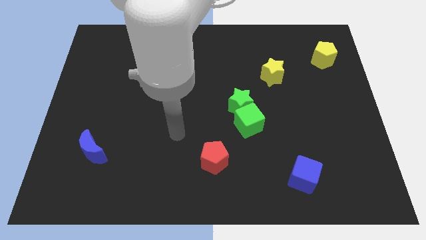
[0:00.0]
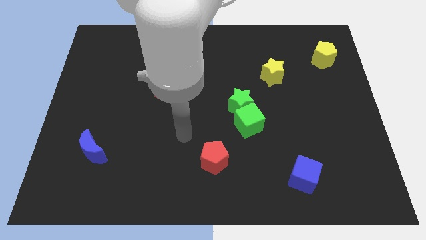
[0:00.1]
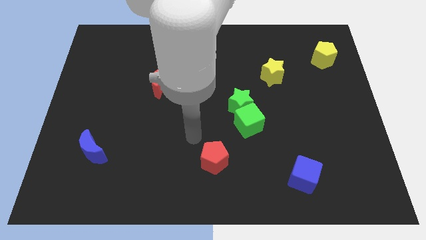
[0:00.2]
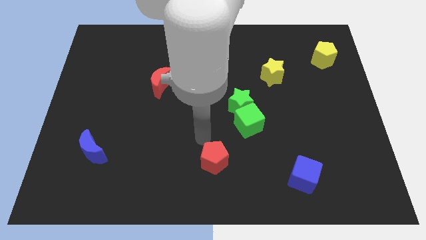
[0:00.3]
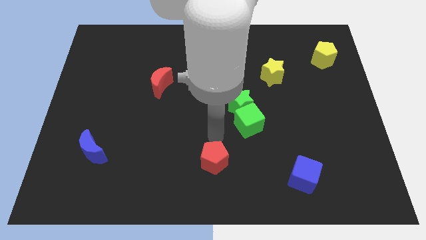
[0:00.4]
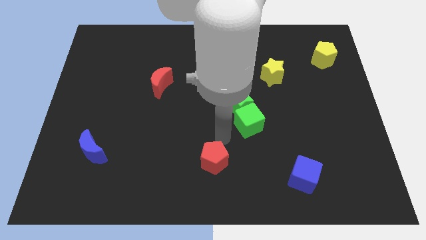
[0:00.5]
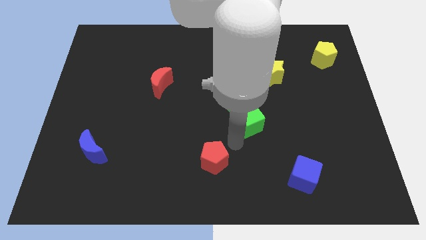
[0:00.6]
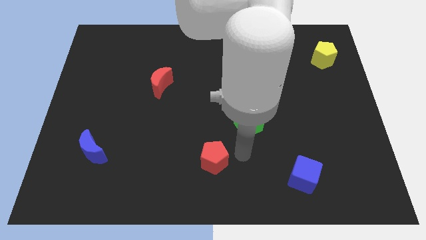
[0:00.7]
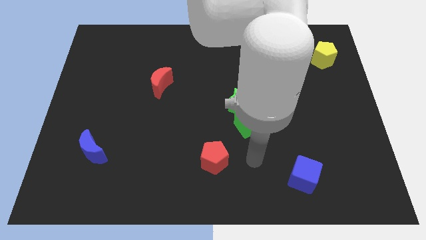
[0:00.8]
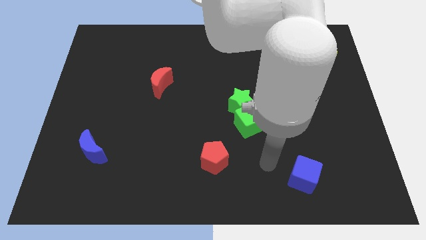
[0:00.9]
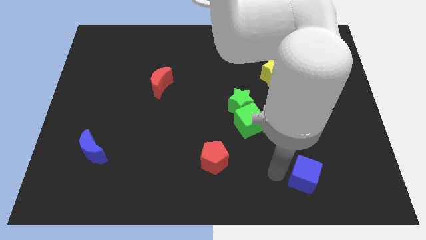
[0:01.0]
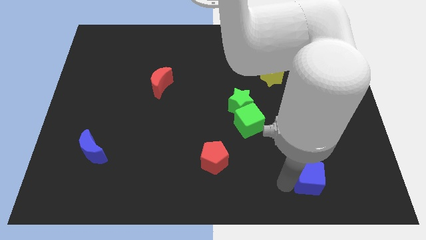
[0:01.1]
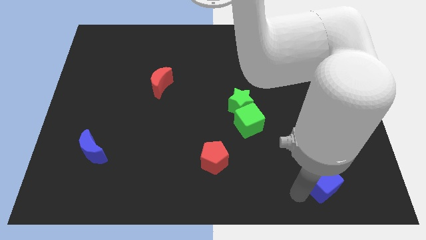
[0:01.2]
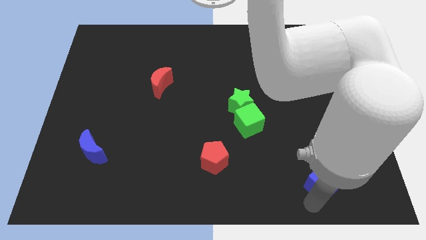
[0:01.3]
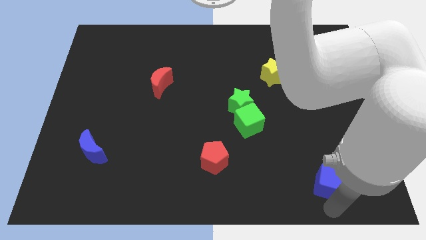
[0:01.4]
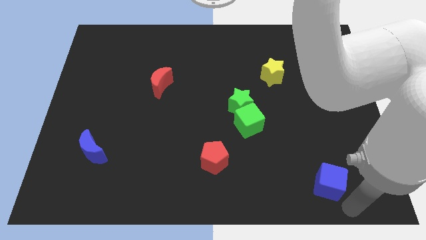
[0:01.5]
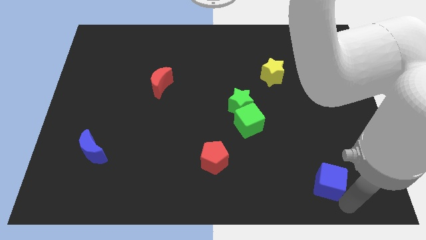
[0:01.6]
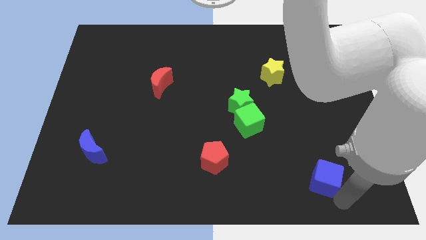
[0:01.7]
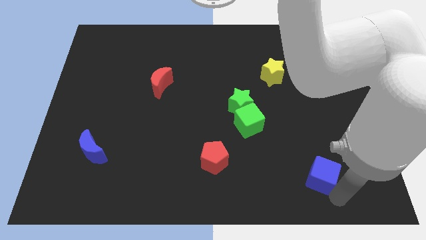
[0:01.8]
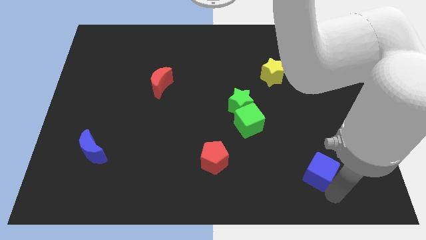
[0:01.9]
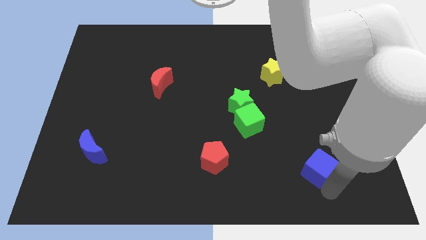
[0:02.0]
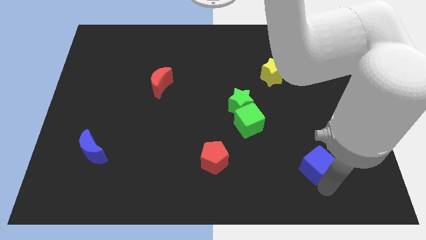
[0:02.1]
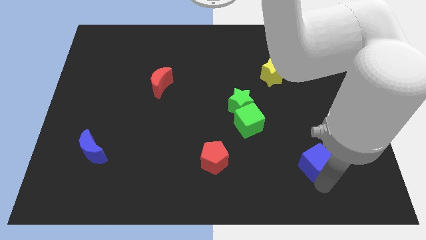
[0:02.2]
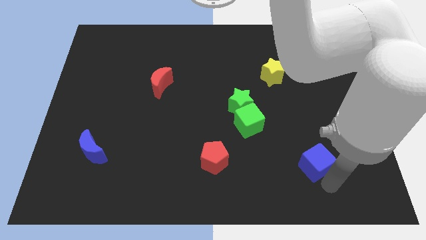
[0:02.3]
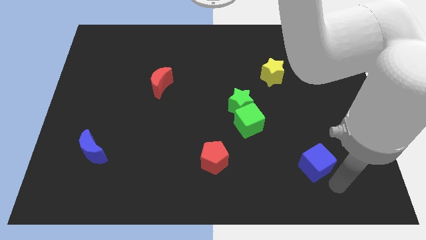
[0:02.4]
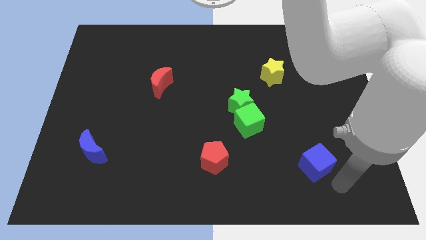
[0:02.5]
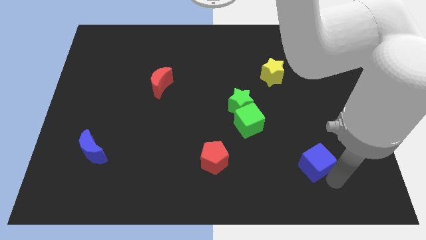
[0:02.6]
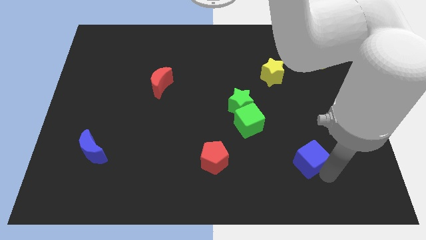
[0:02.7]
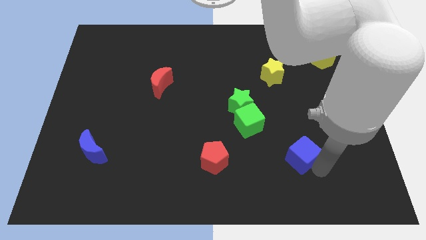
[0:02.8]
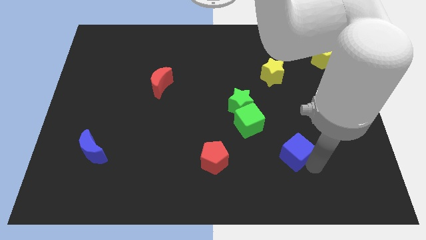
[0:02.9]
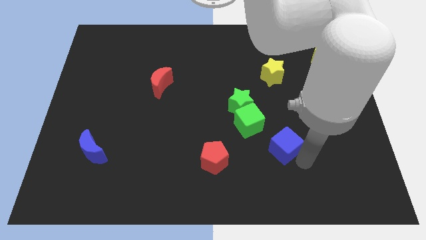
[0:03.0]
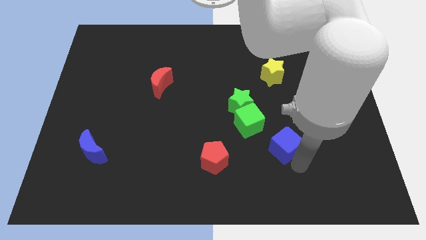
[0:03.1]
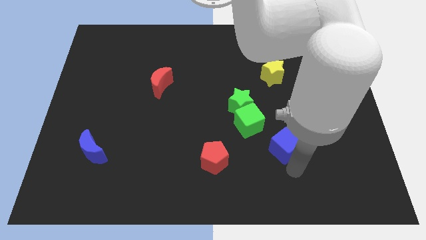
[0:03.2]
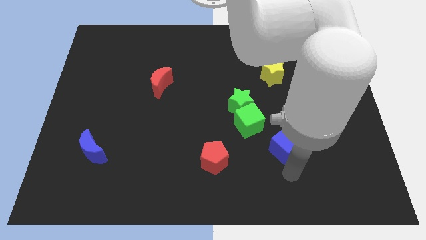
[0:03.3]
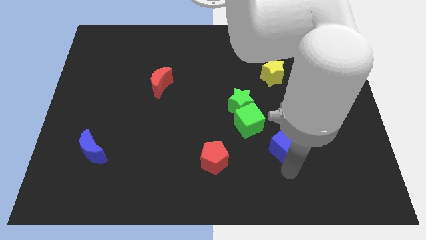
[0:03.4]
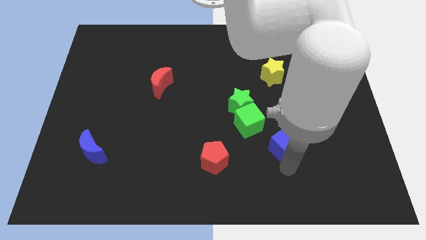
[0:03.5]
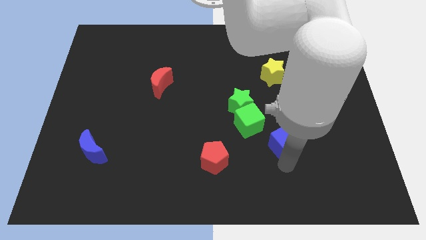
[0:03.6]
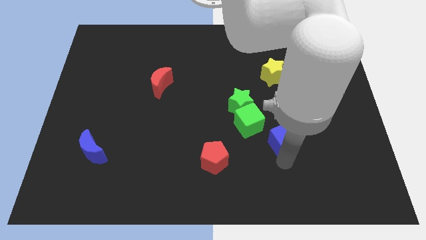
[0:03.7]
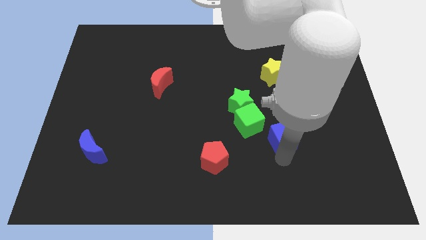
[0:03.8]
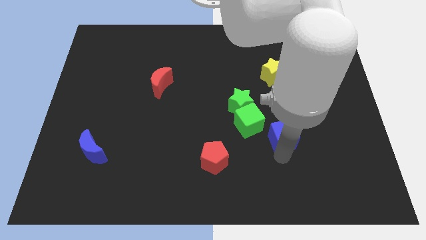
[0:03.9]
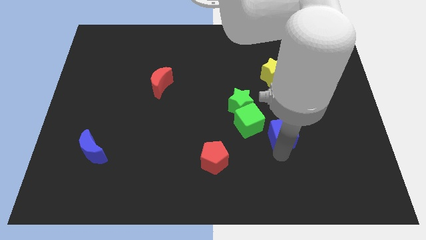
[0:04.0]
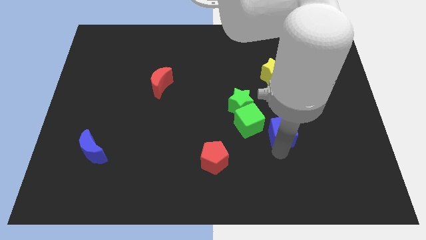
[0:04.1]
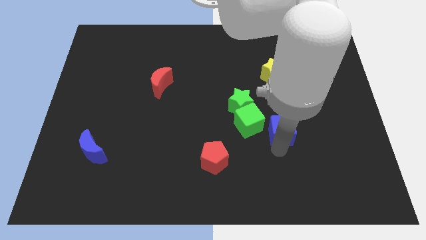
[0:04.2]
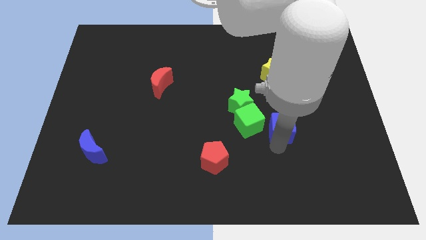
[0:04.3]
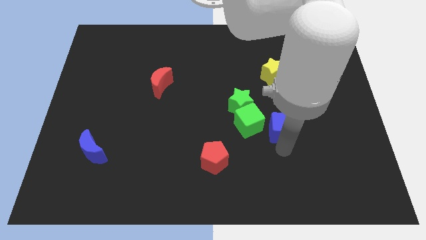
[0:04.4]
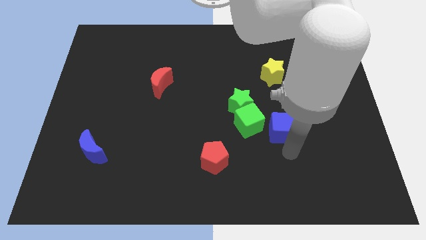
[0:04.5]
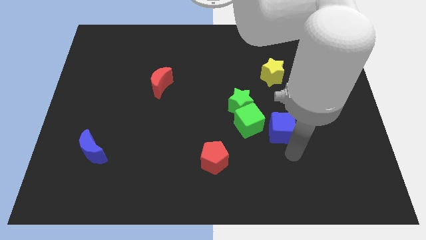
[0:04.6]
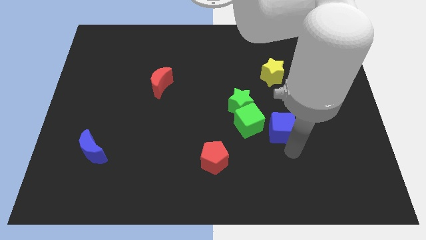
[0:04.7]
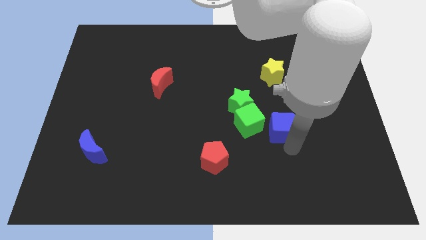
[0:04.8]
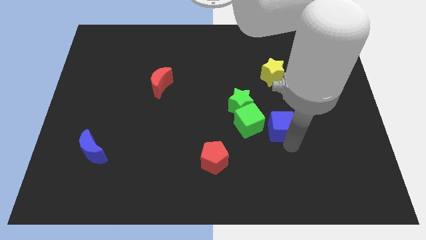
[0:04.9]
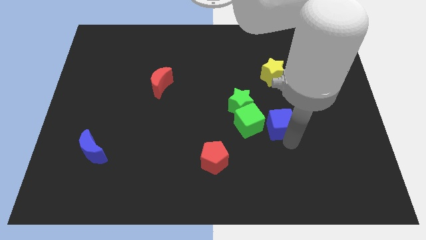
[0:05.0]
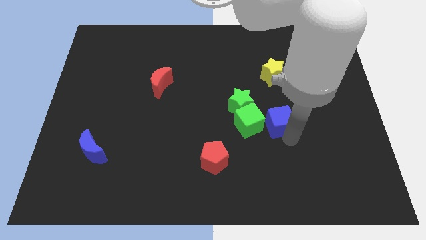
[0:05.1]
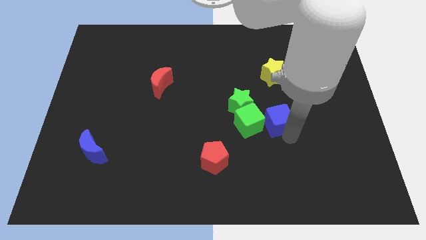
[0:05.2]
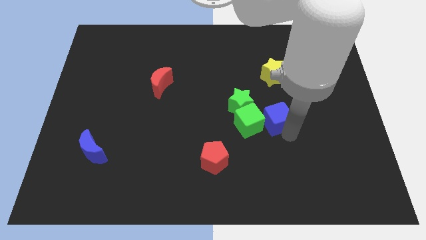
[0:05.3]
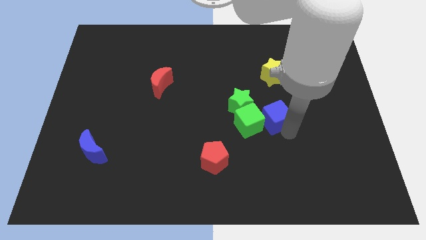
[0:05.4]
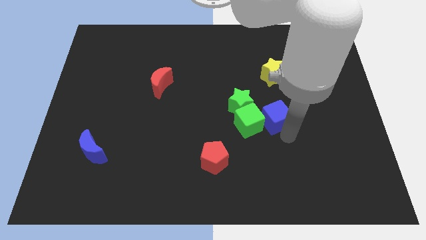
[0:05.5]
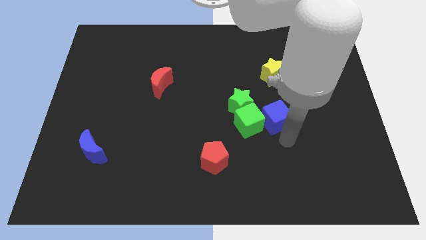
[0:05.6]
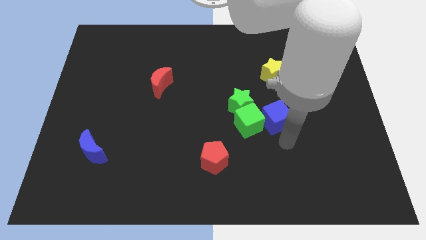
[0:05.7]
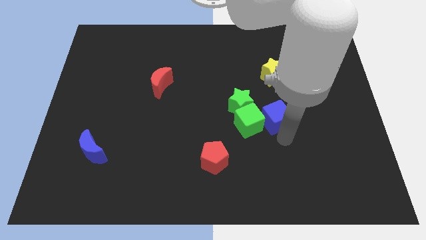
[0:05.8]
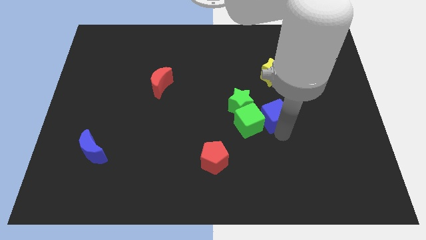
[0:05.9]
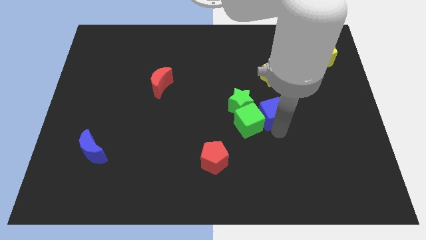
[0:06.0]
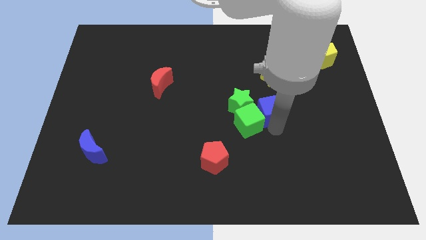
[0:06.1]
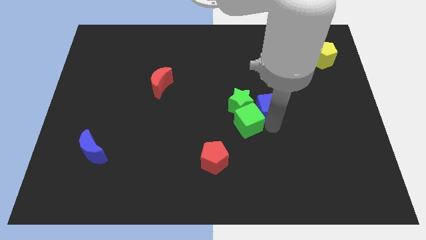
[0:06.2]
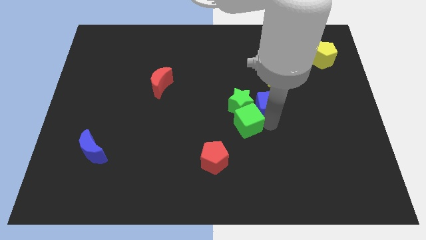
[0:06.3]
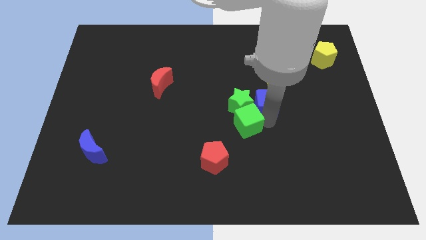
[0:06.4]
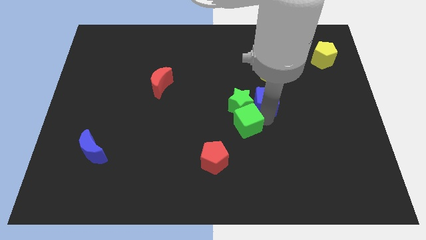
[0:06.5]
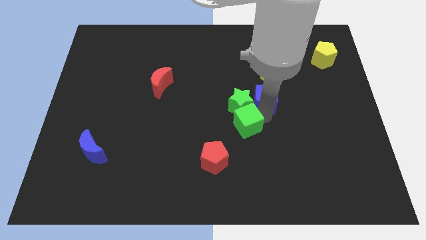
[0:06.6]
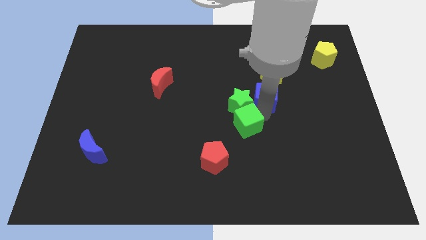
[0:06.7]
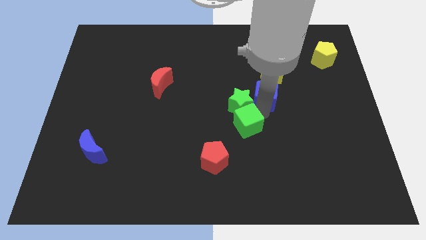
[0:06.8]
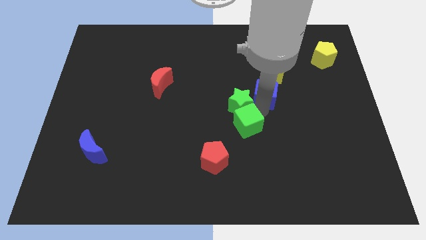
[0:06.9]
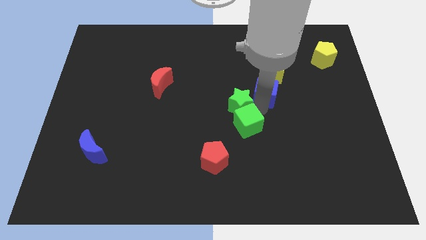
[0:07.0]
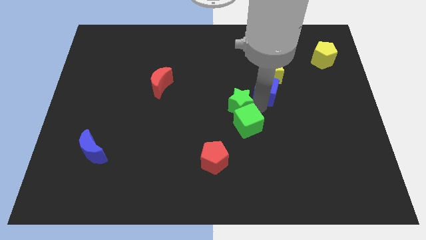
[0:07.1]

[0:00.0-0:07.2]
push the blue cube to the yellow star

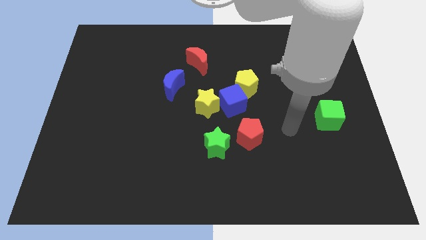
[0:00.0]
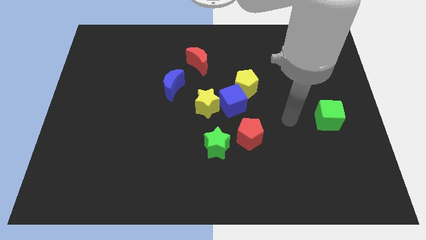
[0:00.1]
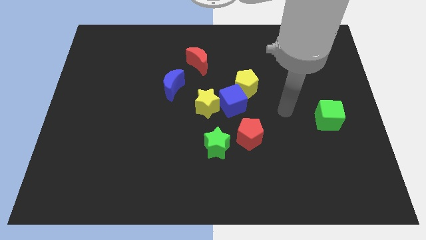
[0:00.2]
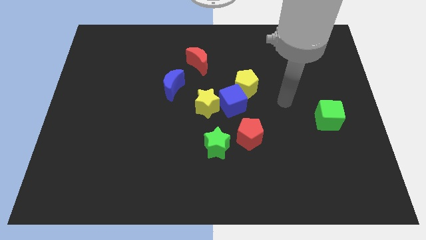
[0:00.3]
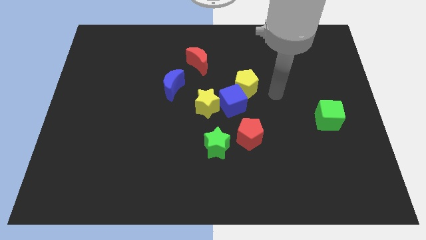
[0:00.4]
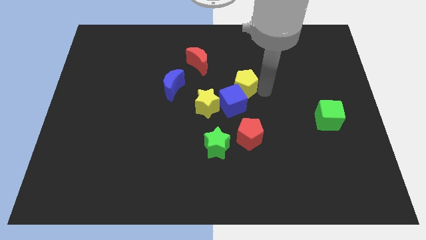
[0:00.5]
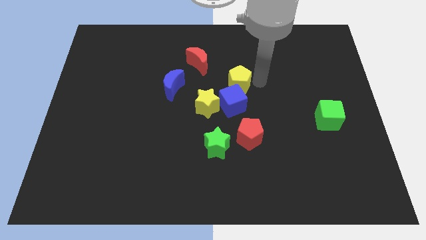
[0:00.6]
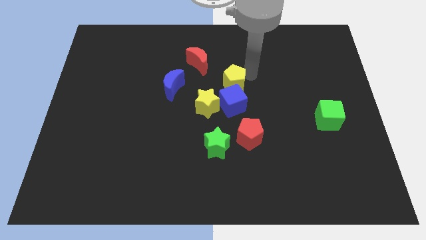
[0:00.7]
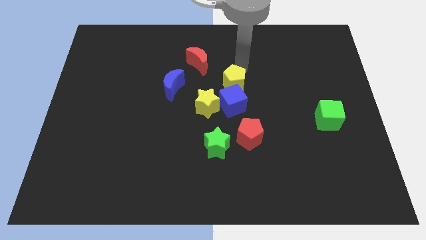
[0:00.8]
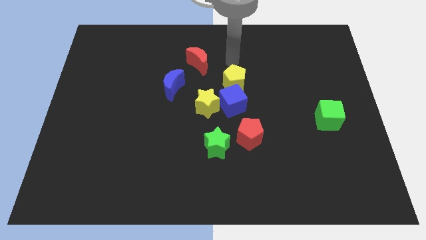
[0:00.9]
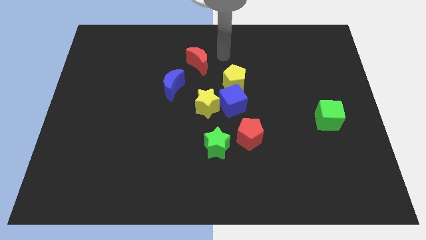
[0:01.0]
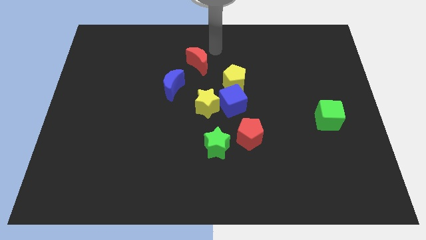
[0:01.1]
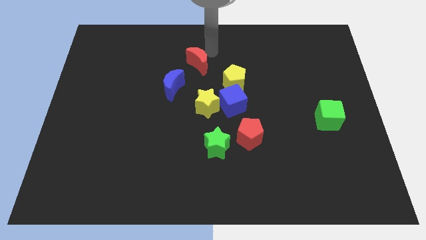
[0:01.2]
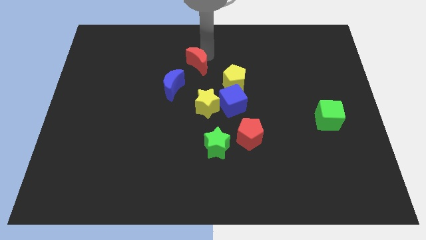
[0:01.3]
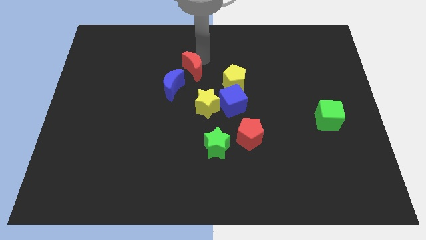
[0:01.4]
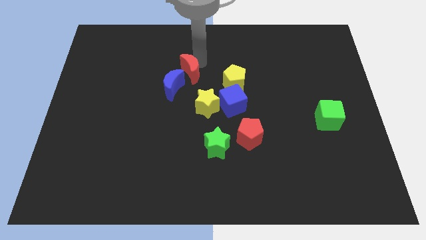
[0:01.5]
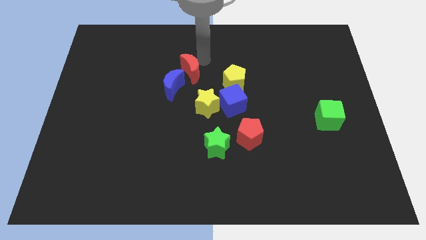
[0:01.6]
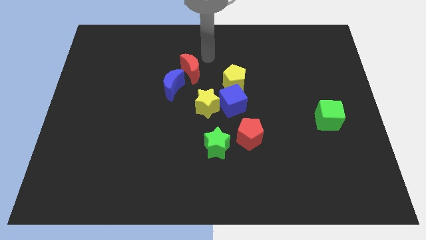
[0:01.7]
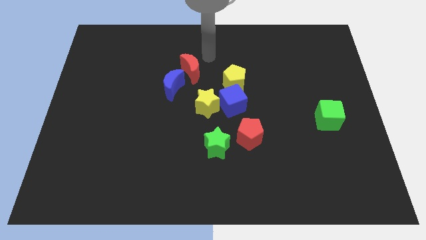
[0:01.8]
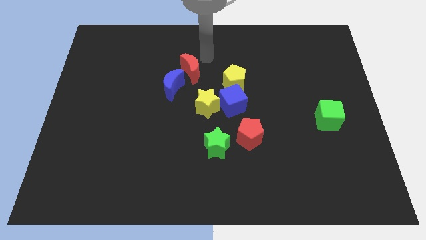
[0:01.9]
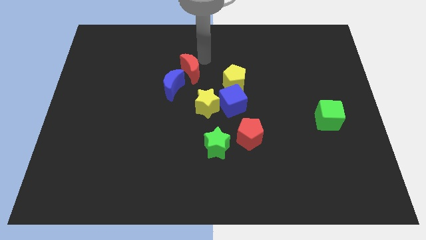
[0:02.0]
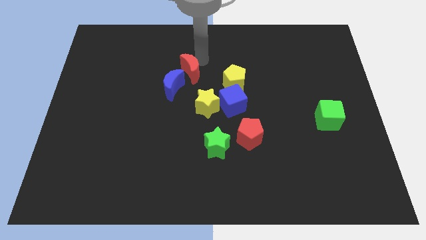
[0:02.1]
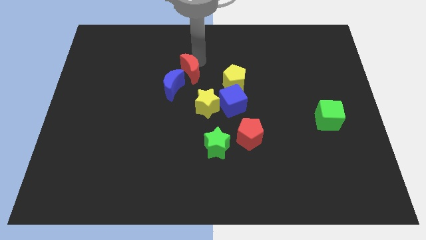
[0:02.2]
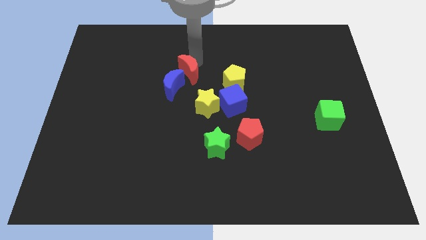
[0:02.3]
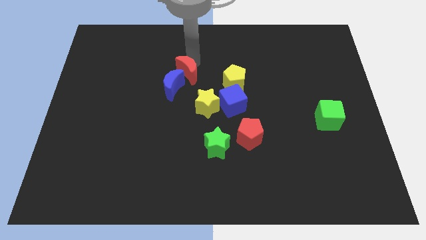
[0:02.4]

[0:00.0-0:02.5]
slide the red moon close to the blue moon
